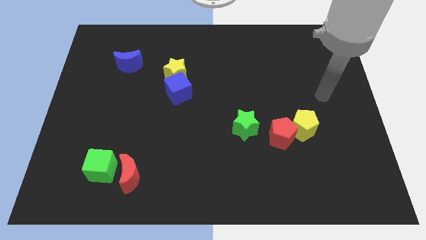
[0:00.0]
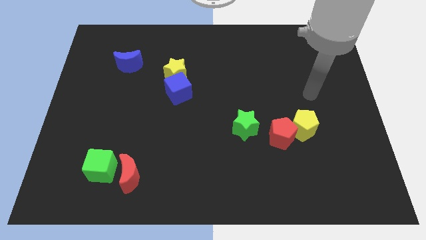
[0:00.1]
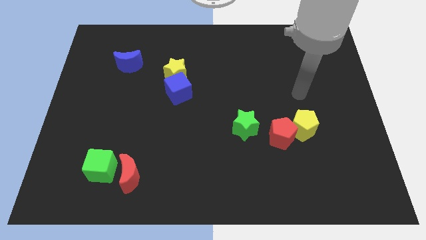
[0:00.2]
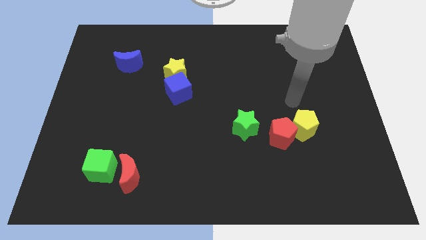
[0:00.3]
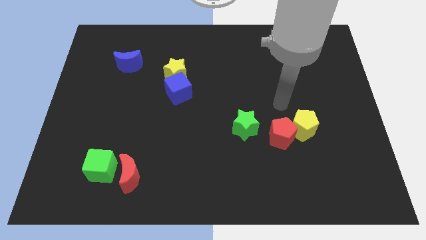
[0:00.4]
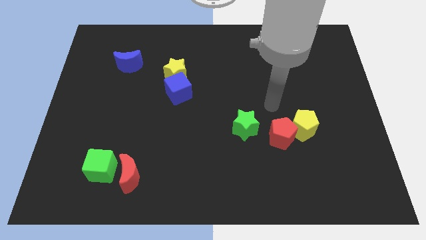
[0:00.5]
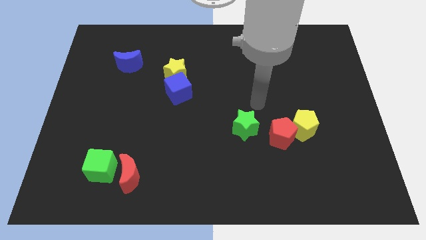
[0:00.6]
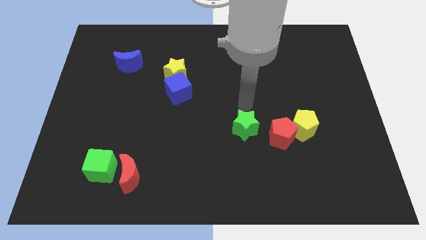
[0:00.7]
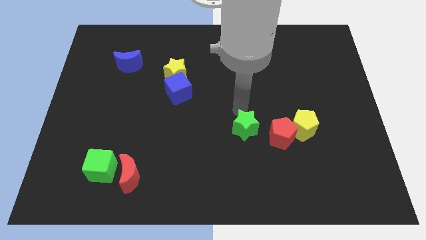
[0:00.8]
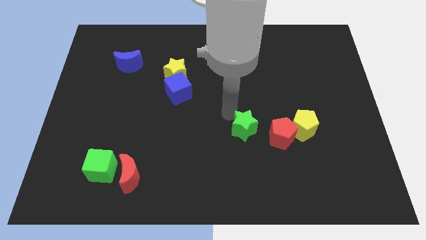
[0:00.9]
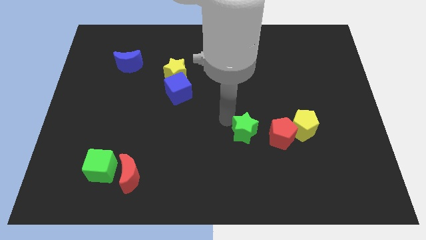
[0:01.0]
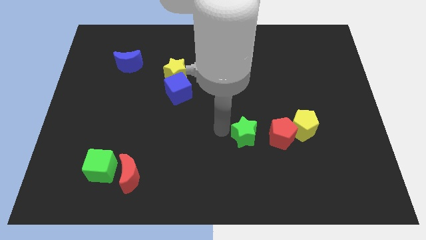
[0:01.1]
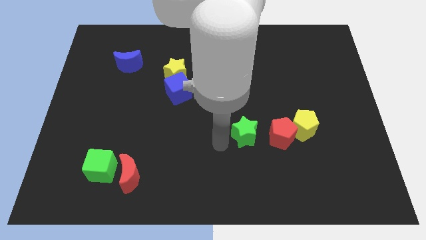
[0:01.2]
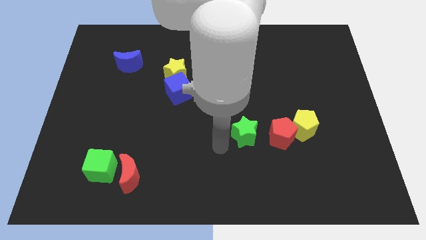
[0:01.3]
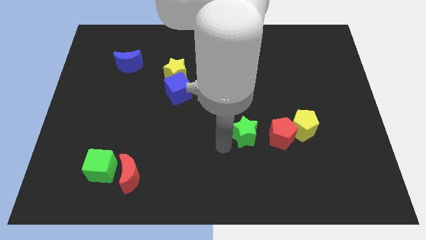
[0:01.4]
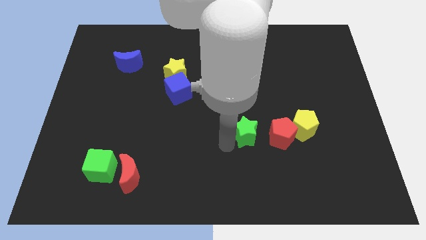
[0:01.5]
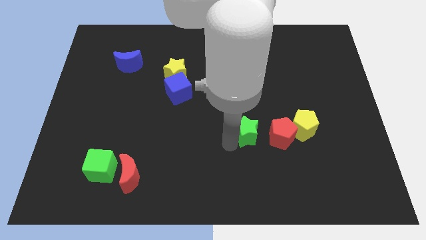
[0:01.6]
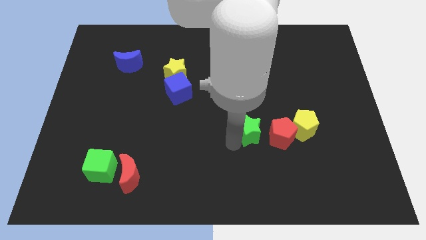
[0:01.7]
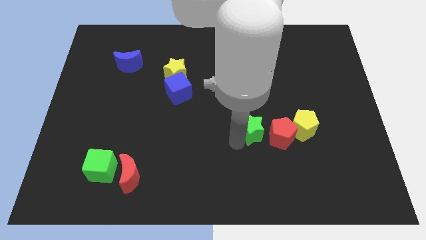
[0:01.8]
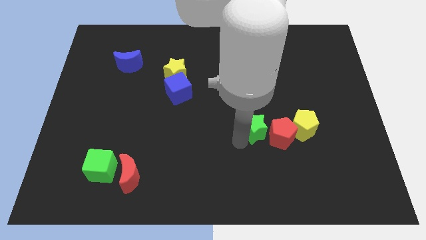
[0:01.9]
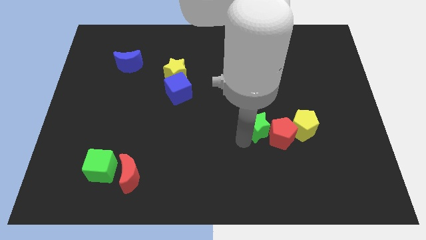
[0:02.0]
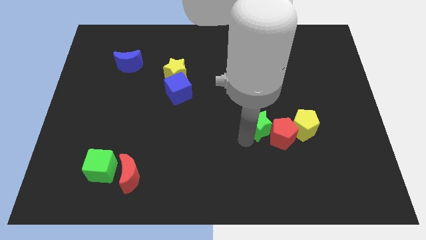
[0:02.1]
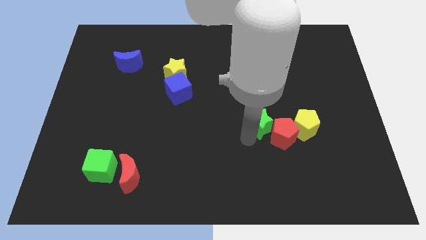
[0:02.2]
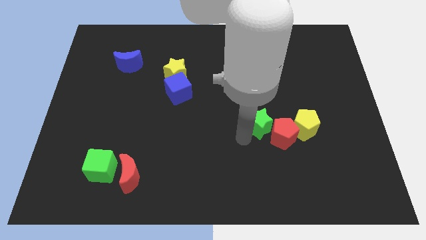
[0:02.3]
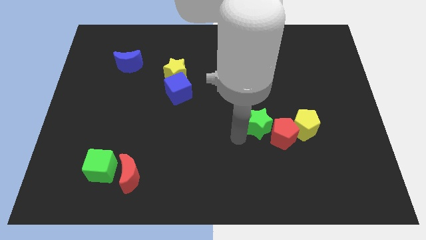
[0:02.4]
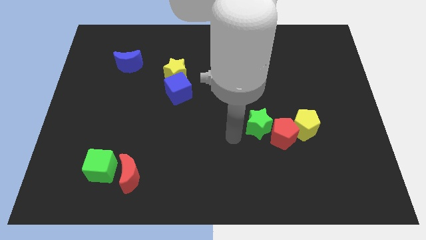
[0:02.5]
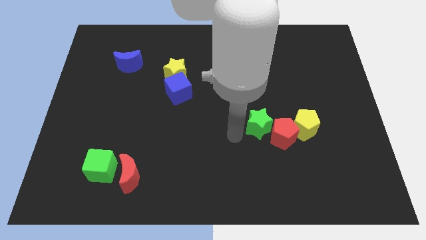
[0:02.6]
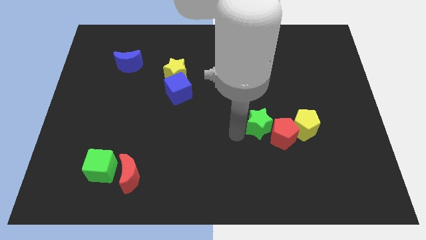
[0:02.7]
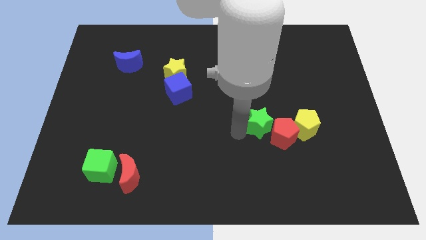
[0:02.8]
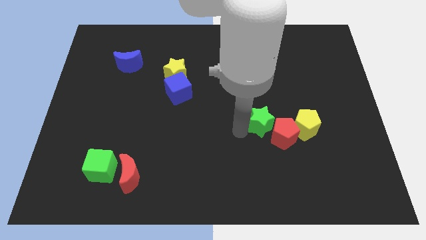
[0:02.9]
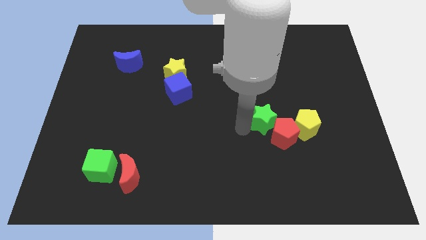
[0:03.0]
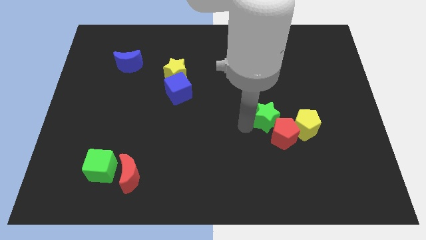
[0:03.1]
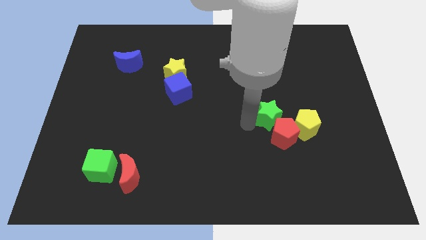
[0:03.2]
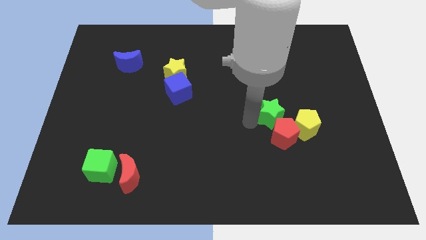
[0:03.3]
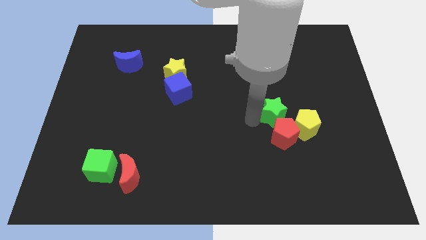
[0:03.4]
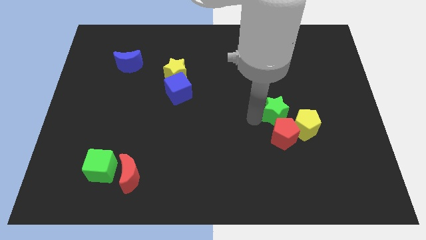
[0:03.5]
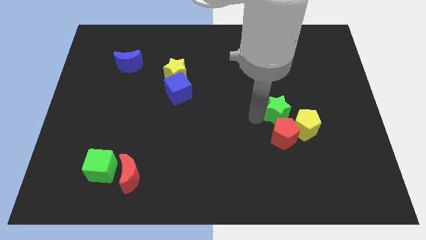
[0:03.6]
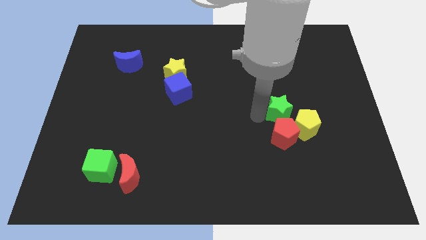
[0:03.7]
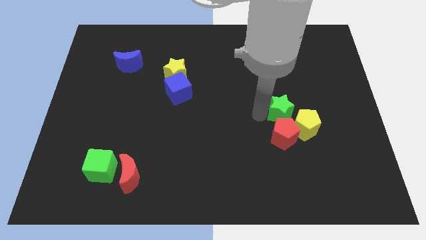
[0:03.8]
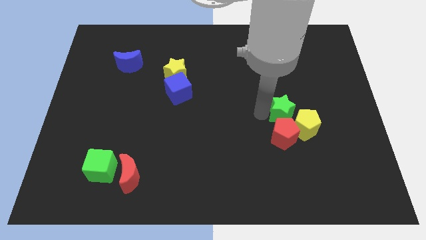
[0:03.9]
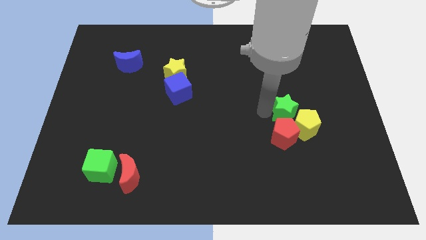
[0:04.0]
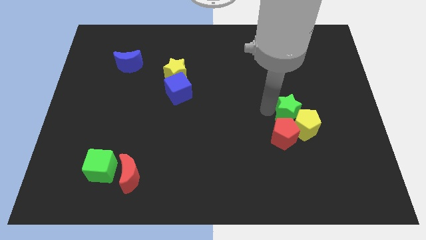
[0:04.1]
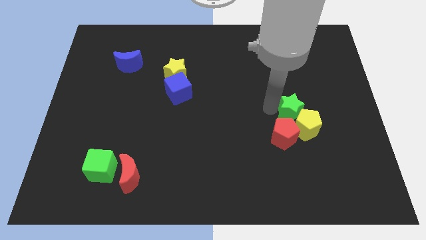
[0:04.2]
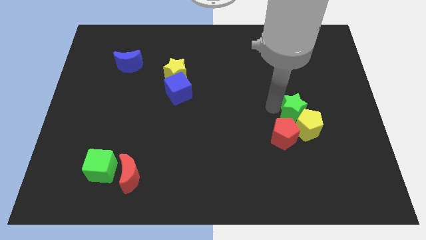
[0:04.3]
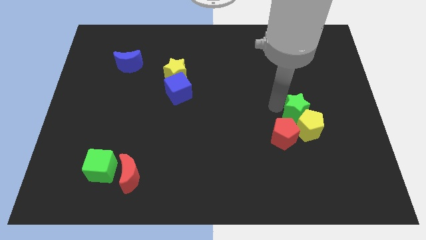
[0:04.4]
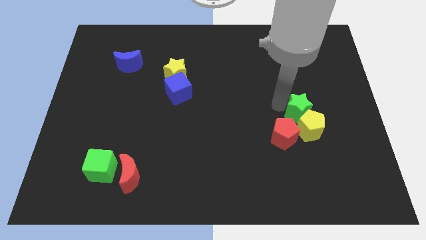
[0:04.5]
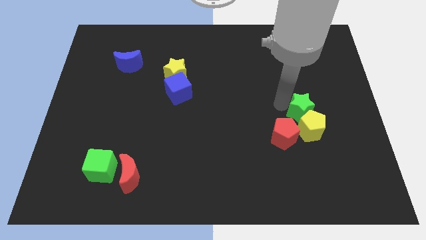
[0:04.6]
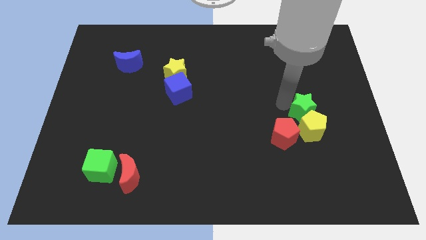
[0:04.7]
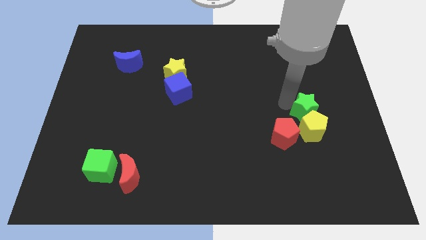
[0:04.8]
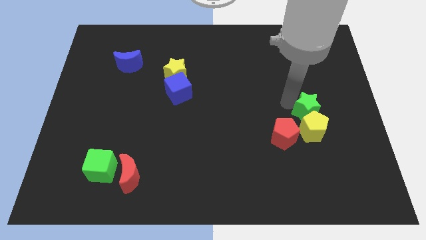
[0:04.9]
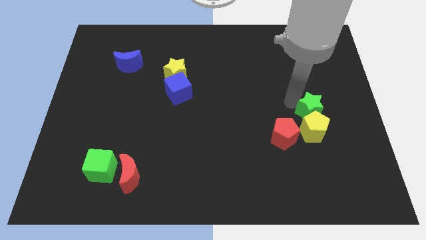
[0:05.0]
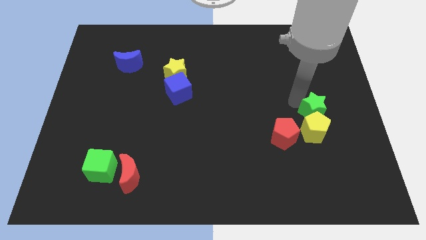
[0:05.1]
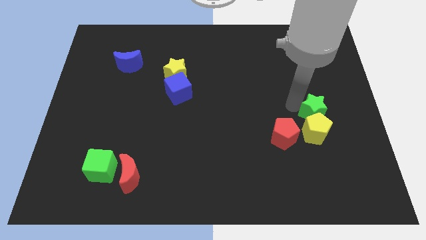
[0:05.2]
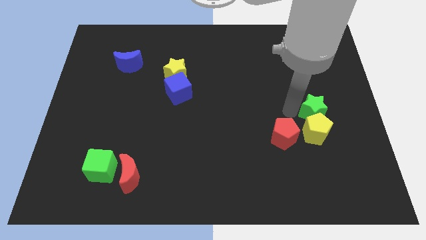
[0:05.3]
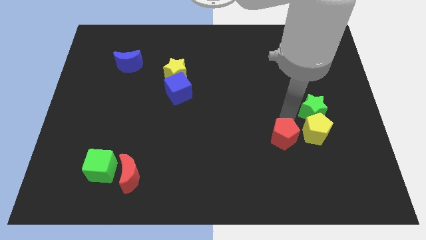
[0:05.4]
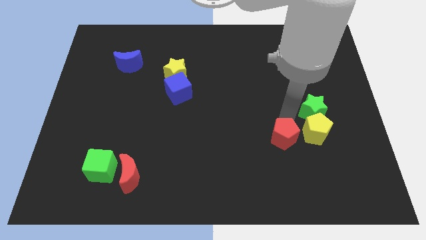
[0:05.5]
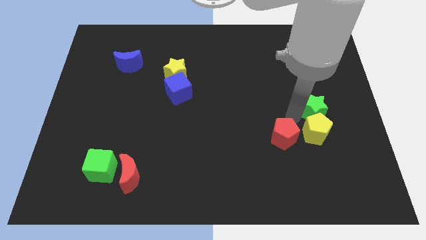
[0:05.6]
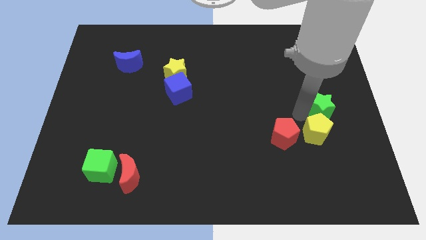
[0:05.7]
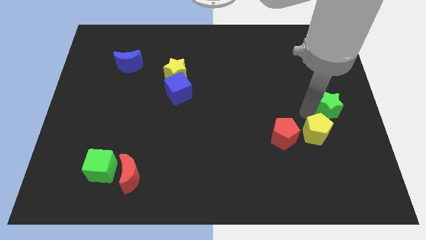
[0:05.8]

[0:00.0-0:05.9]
push the green star to the right side of the board

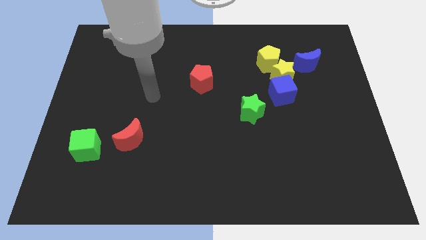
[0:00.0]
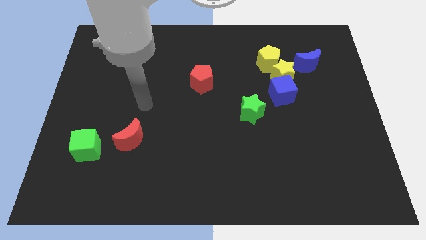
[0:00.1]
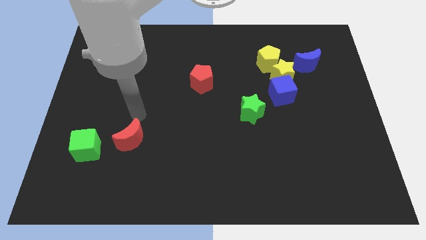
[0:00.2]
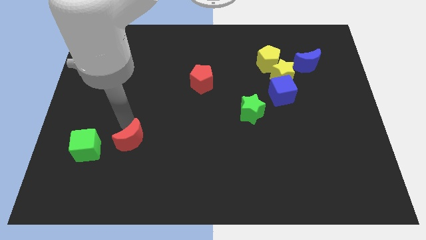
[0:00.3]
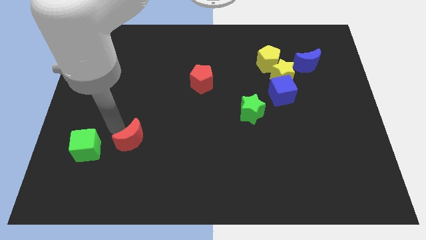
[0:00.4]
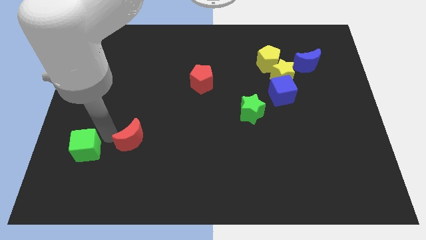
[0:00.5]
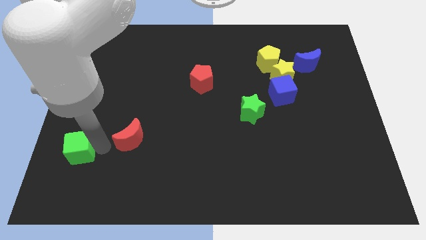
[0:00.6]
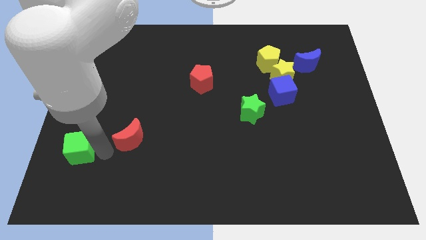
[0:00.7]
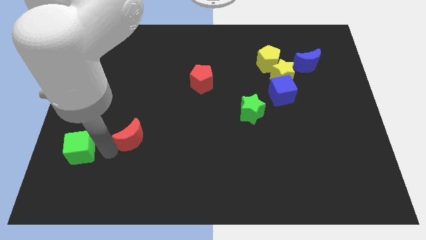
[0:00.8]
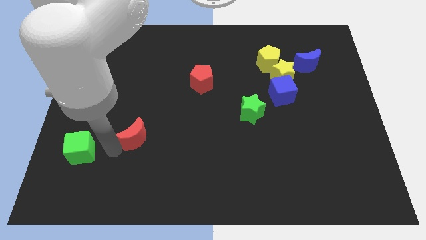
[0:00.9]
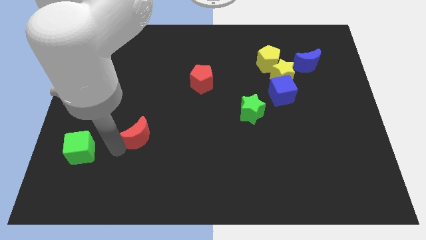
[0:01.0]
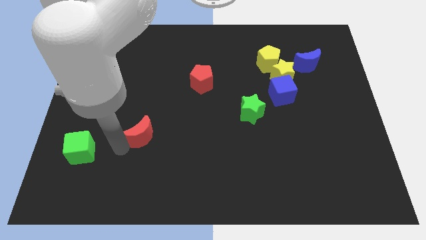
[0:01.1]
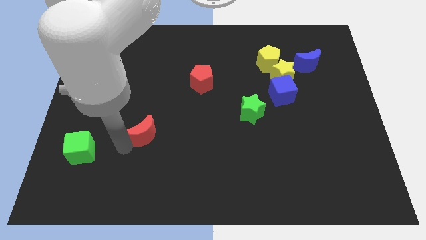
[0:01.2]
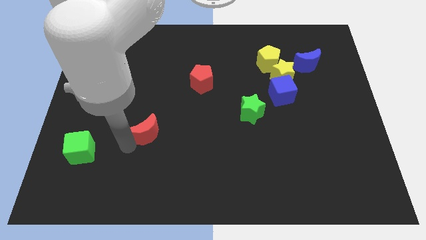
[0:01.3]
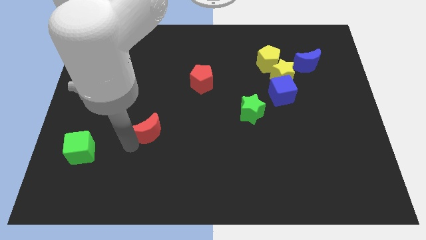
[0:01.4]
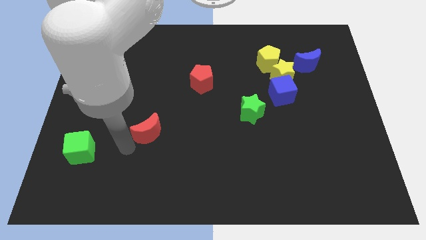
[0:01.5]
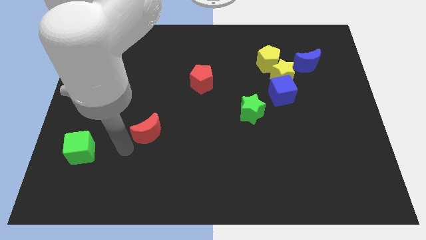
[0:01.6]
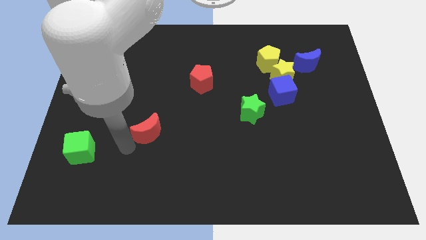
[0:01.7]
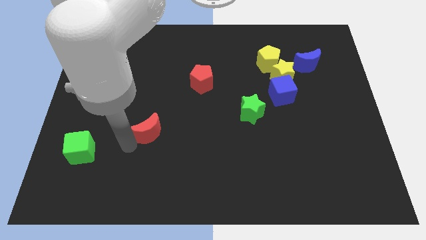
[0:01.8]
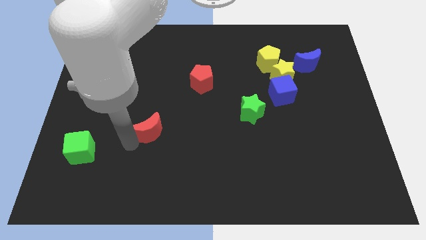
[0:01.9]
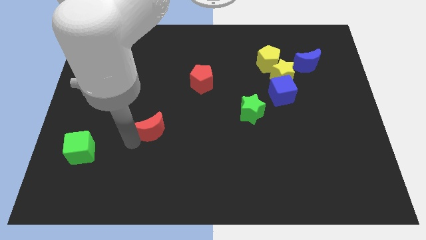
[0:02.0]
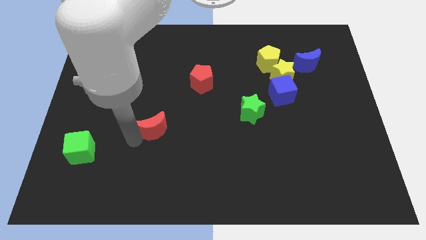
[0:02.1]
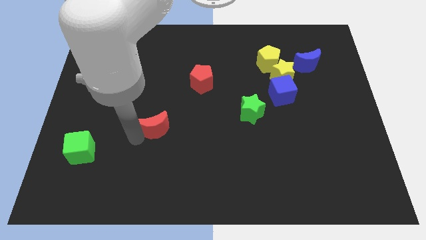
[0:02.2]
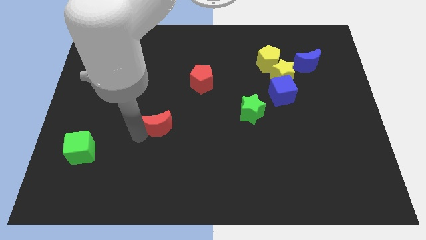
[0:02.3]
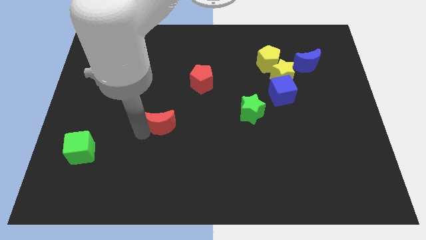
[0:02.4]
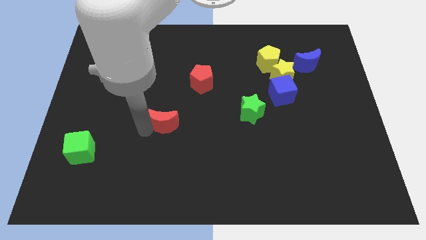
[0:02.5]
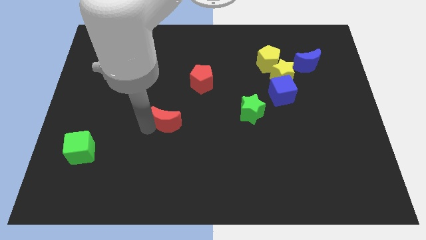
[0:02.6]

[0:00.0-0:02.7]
put the red moon to the center of the board
